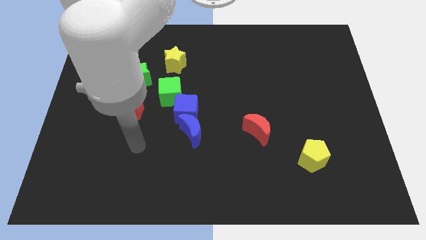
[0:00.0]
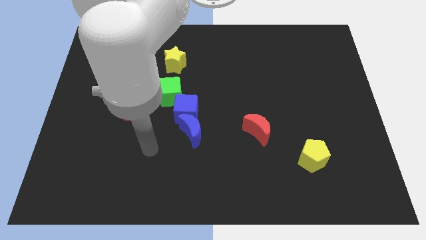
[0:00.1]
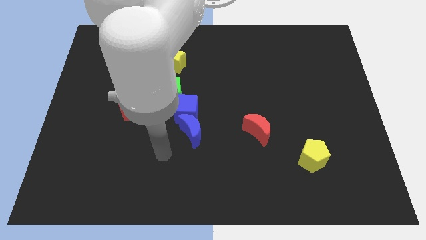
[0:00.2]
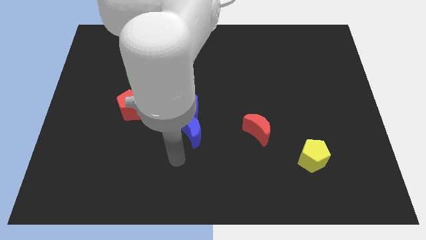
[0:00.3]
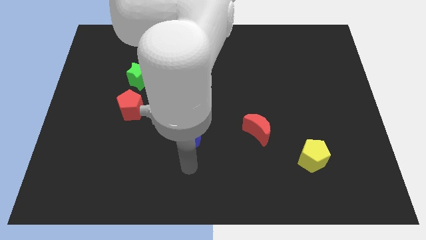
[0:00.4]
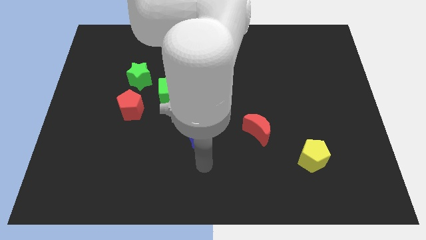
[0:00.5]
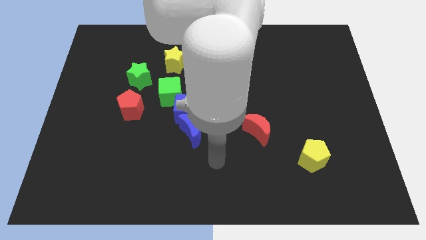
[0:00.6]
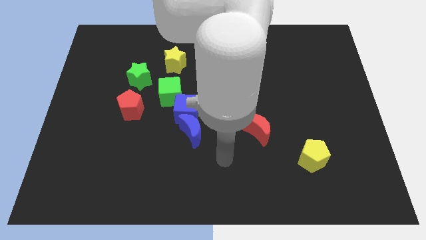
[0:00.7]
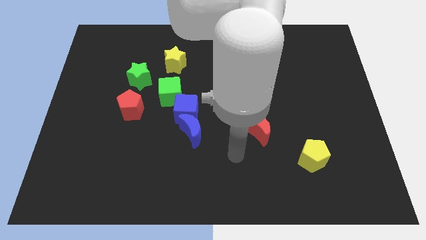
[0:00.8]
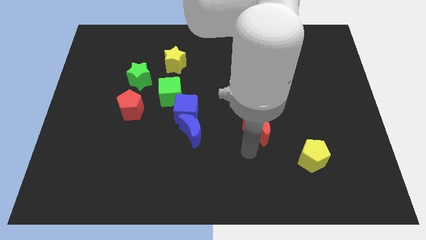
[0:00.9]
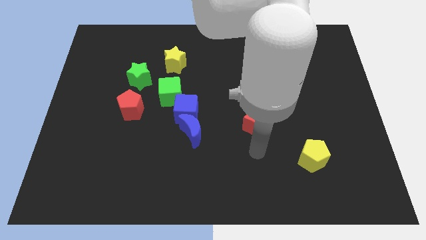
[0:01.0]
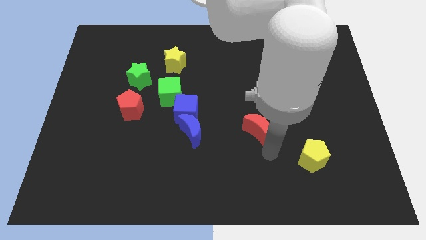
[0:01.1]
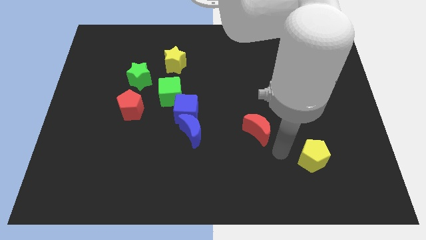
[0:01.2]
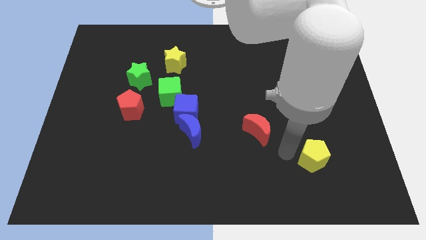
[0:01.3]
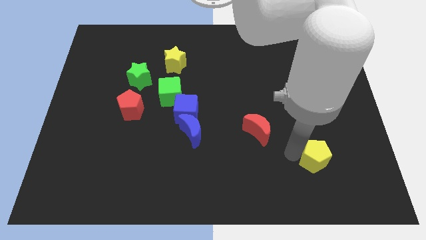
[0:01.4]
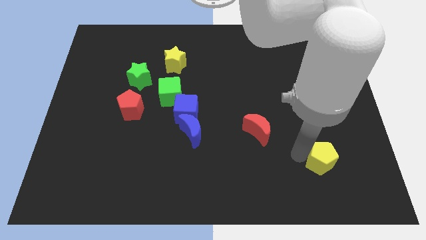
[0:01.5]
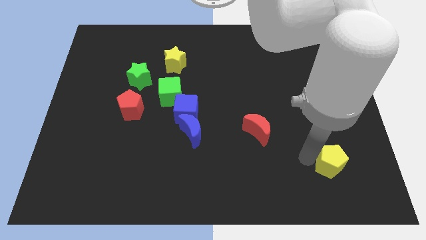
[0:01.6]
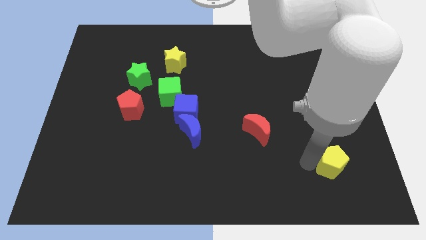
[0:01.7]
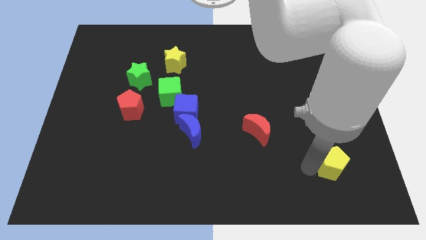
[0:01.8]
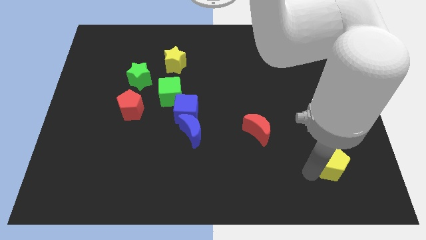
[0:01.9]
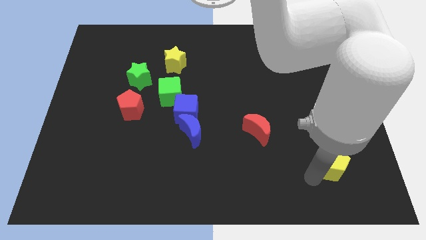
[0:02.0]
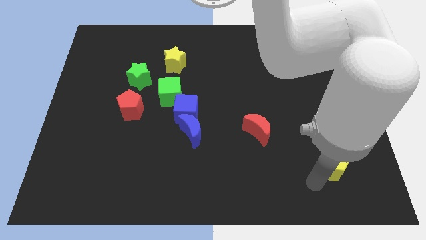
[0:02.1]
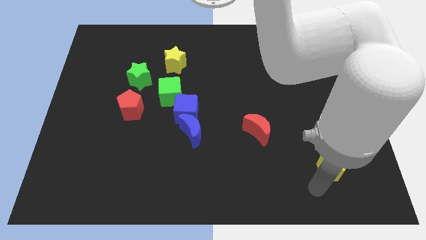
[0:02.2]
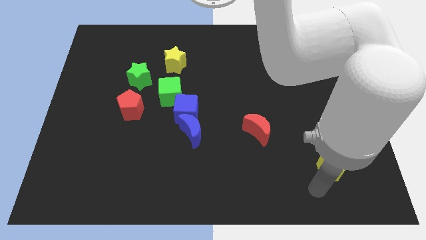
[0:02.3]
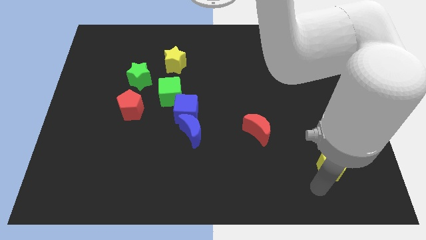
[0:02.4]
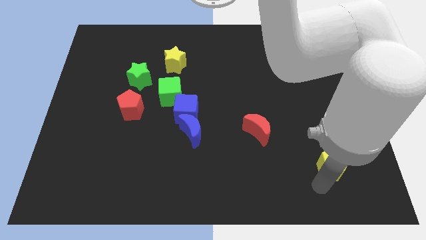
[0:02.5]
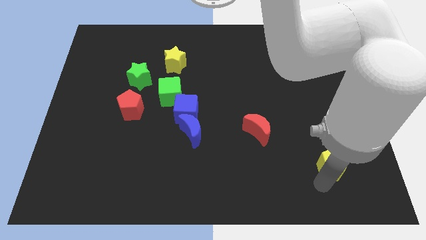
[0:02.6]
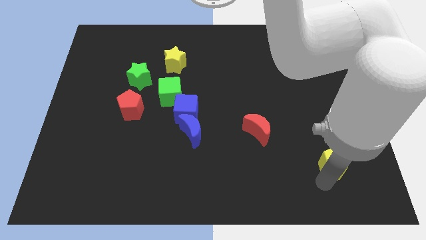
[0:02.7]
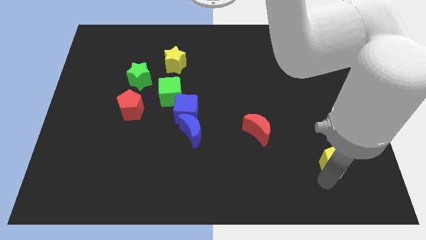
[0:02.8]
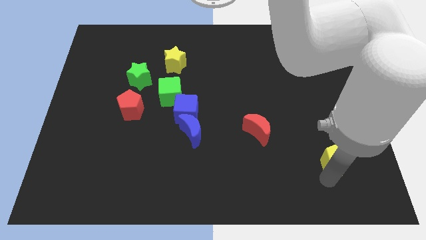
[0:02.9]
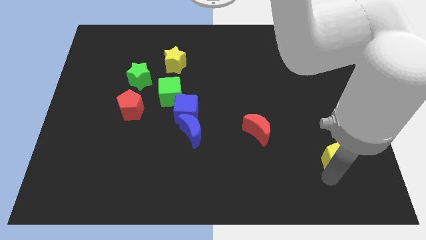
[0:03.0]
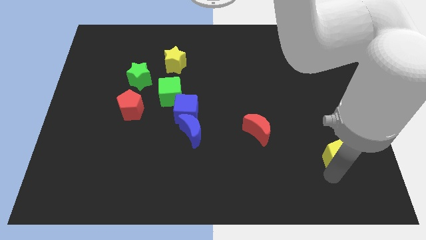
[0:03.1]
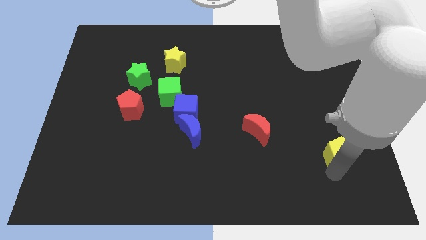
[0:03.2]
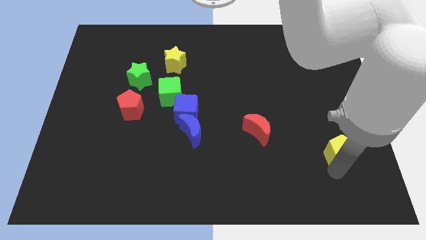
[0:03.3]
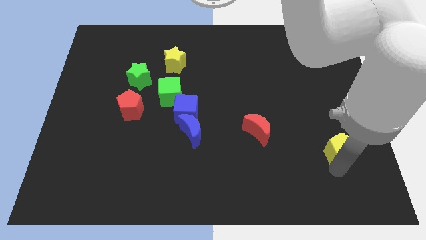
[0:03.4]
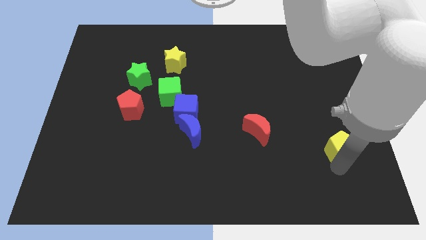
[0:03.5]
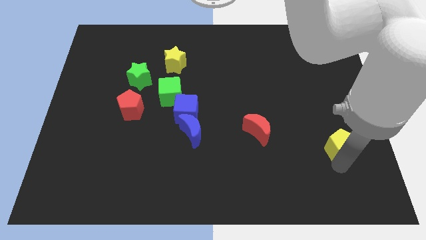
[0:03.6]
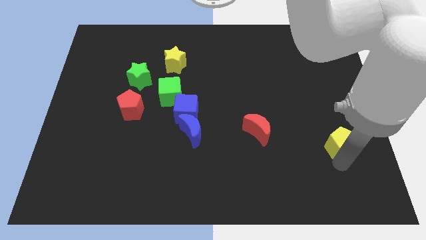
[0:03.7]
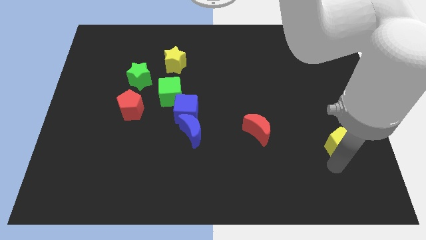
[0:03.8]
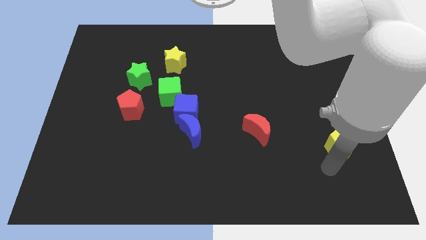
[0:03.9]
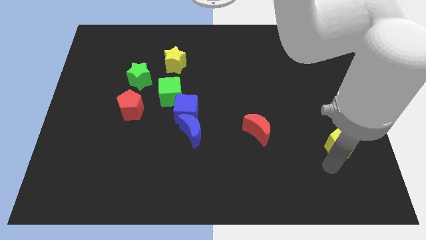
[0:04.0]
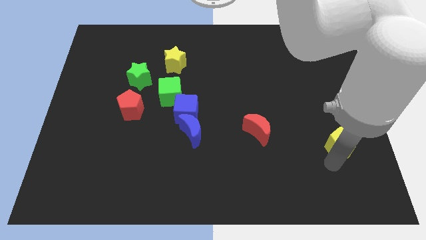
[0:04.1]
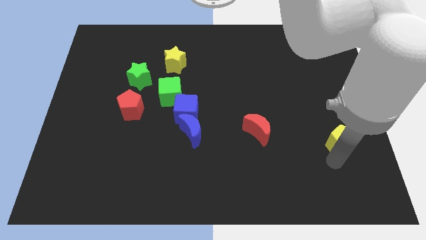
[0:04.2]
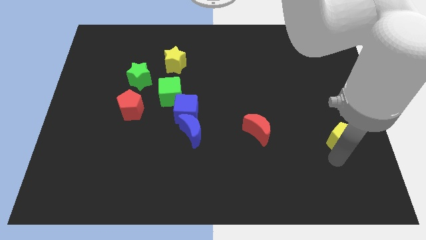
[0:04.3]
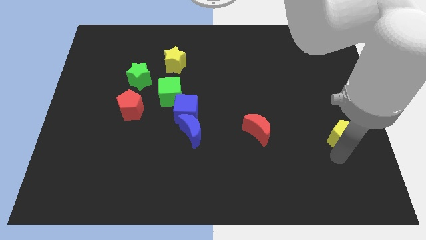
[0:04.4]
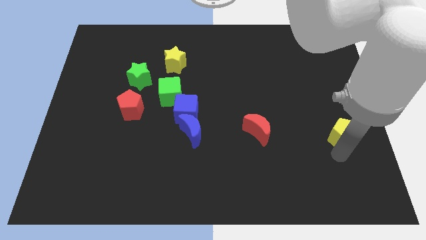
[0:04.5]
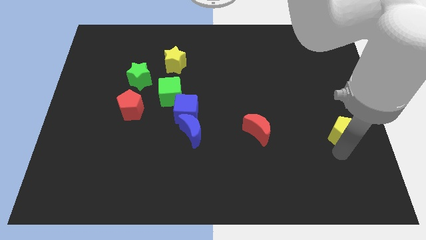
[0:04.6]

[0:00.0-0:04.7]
move the yellow pentagon to the right side

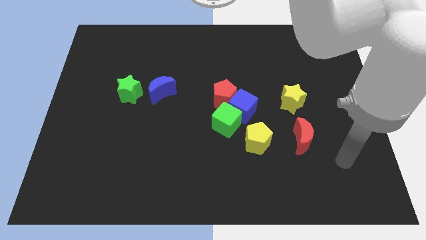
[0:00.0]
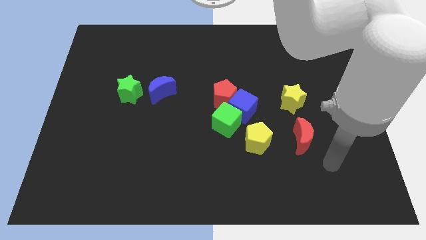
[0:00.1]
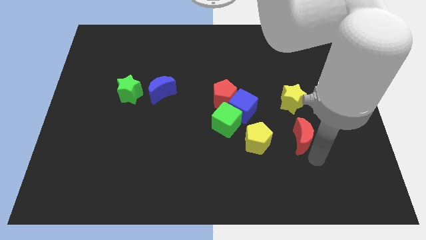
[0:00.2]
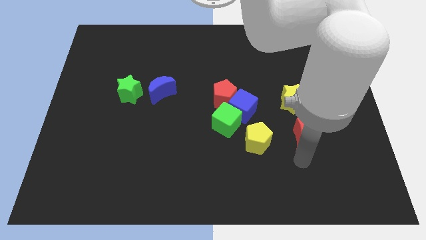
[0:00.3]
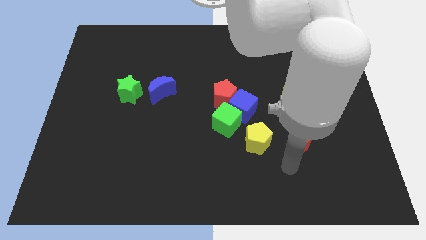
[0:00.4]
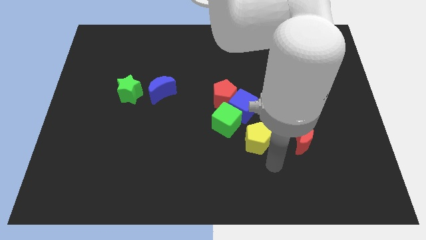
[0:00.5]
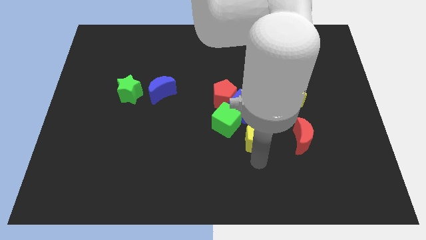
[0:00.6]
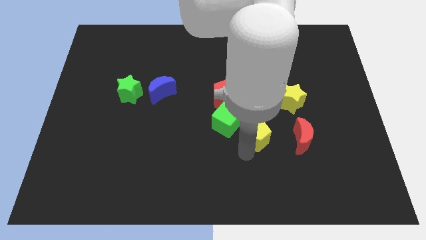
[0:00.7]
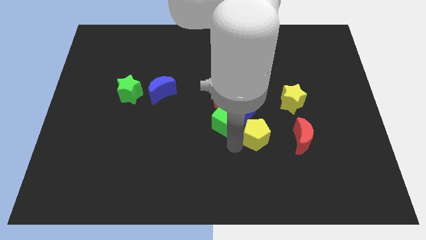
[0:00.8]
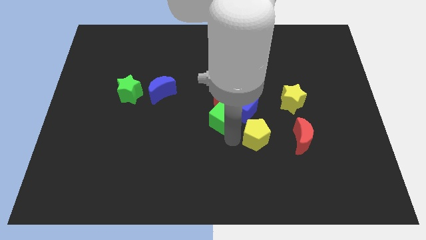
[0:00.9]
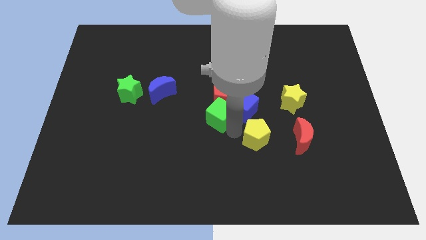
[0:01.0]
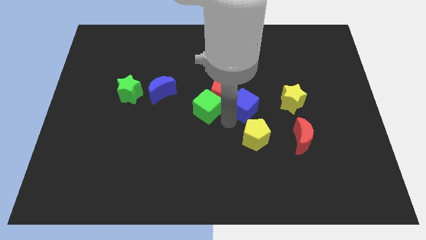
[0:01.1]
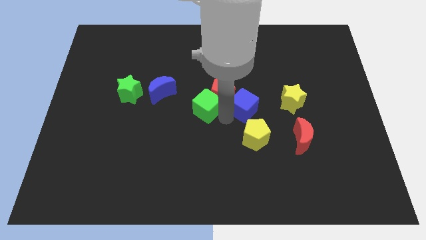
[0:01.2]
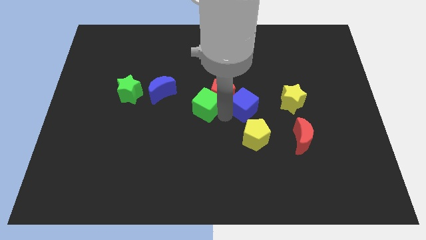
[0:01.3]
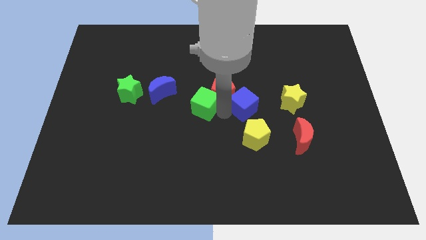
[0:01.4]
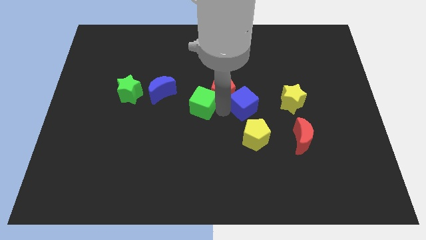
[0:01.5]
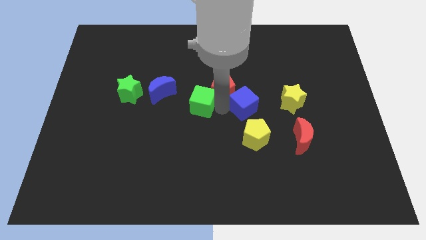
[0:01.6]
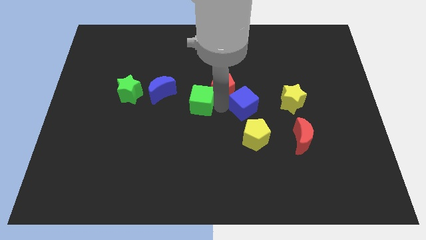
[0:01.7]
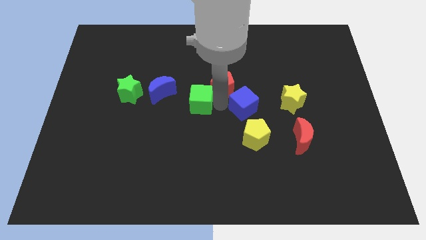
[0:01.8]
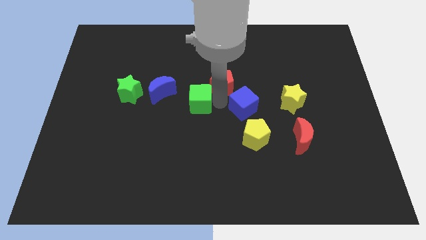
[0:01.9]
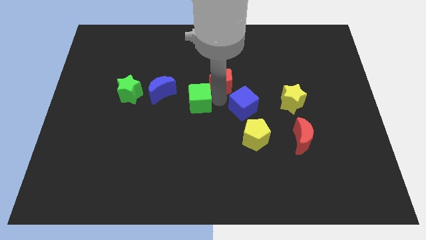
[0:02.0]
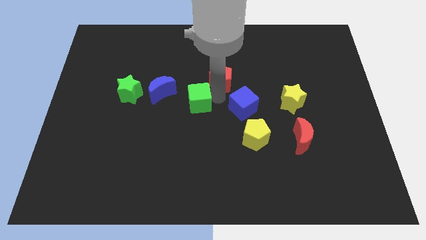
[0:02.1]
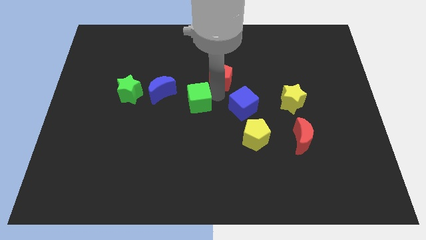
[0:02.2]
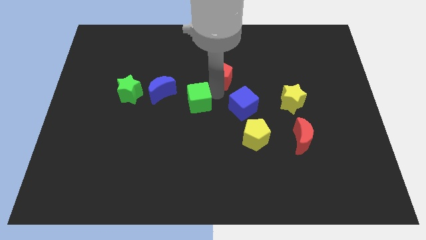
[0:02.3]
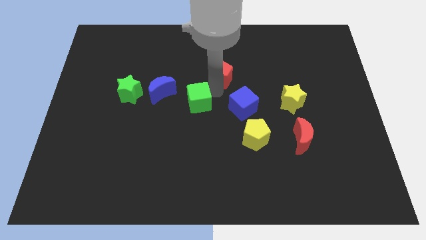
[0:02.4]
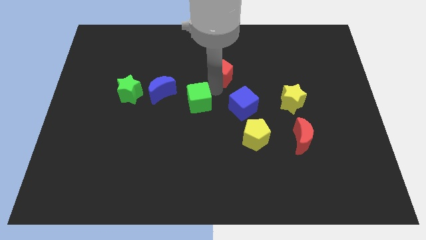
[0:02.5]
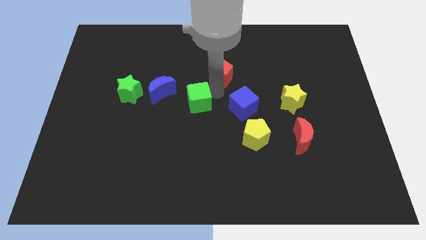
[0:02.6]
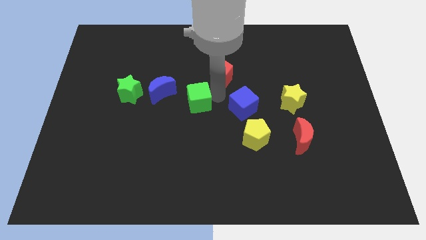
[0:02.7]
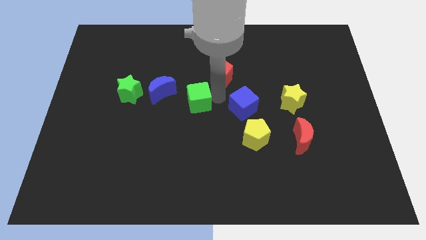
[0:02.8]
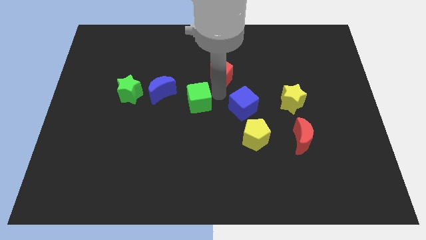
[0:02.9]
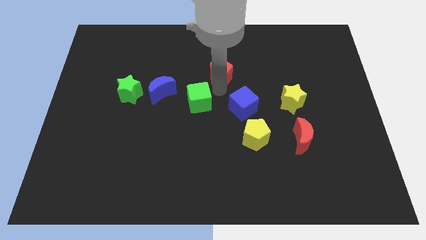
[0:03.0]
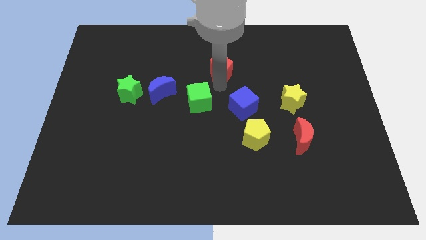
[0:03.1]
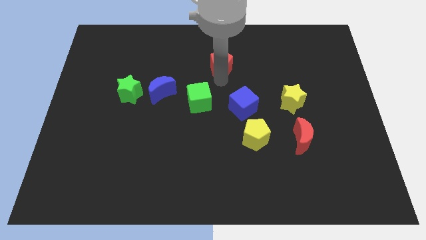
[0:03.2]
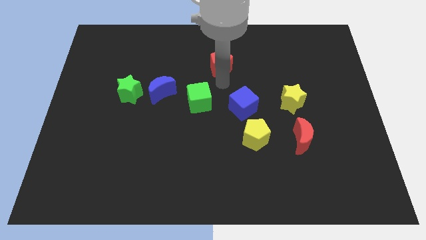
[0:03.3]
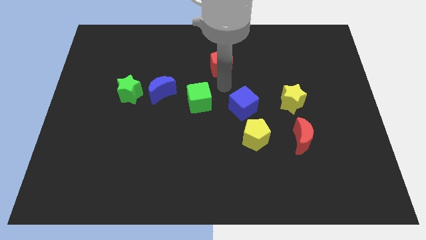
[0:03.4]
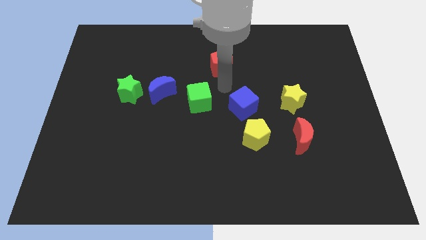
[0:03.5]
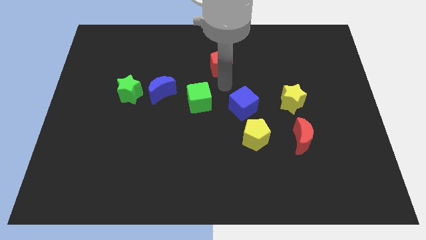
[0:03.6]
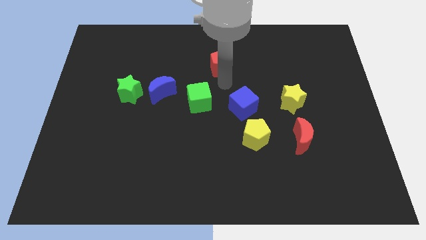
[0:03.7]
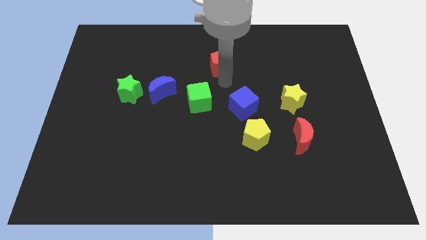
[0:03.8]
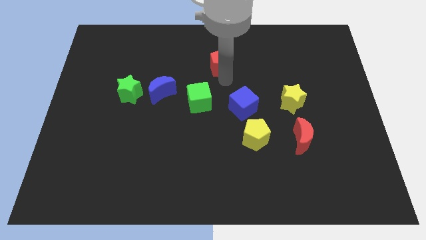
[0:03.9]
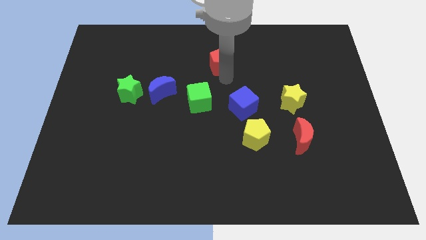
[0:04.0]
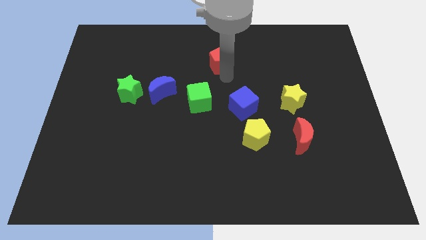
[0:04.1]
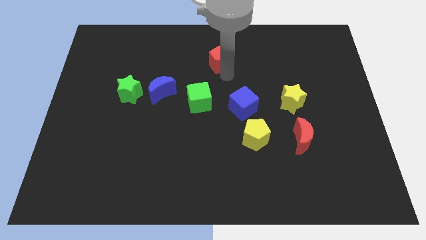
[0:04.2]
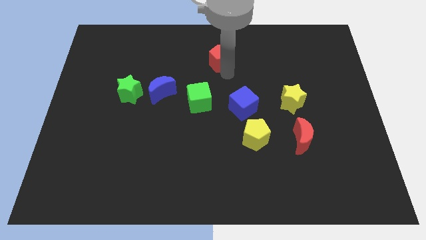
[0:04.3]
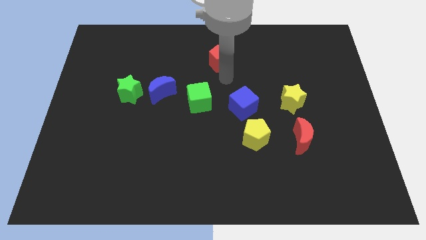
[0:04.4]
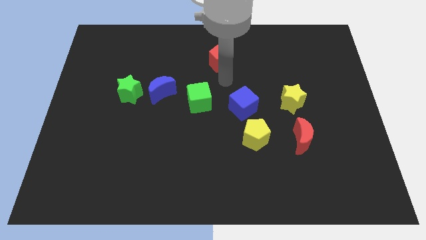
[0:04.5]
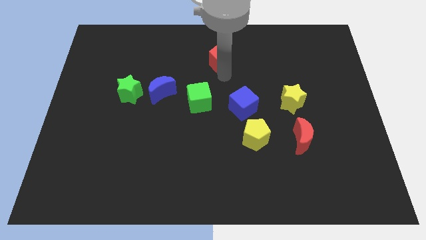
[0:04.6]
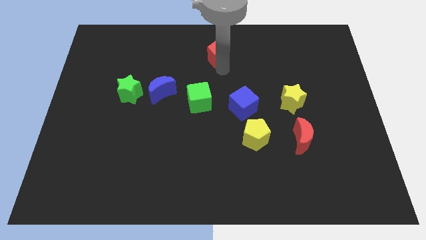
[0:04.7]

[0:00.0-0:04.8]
slide the red pentagon to the towards your base
